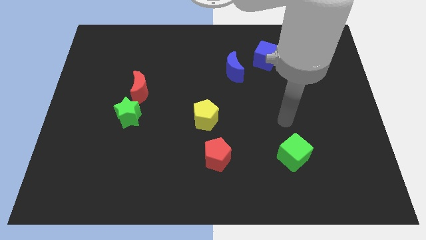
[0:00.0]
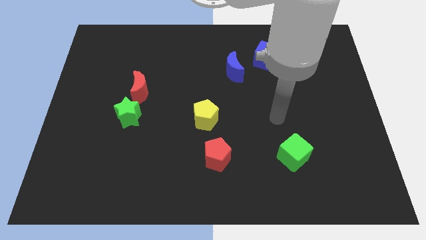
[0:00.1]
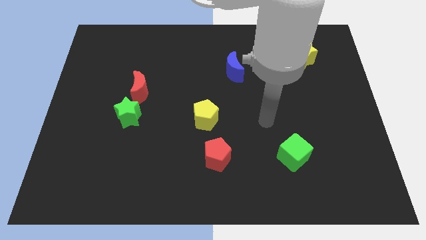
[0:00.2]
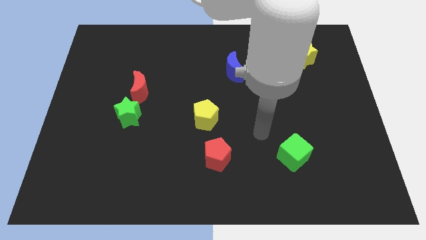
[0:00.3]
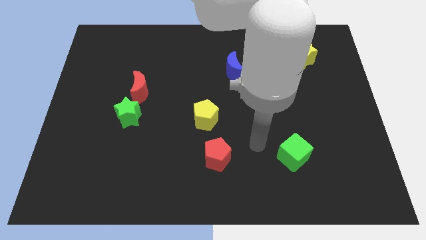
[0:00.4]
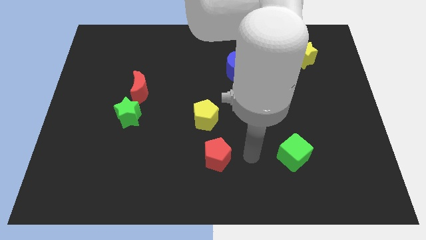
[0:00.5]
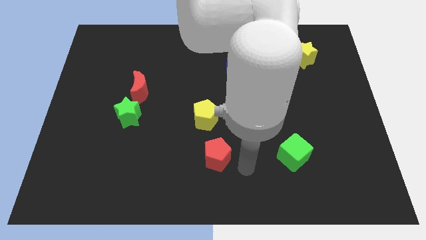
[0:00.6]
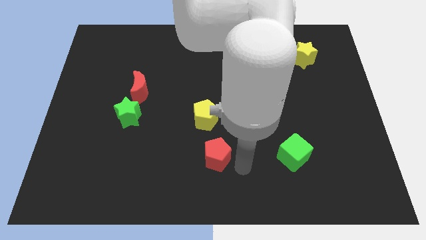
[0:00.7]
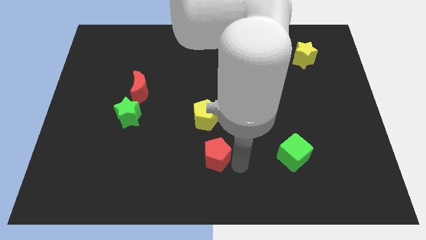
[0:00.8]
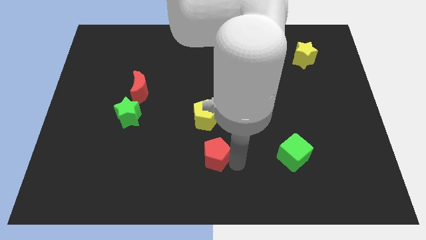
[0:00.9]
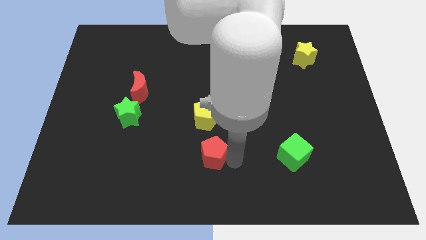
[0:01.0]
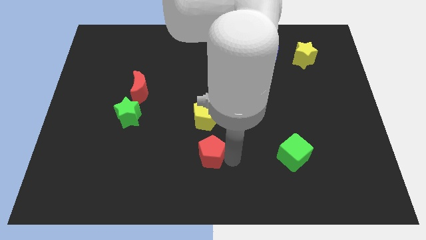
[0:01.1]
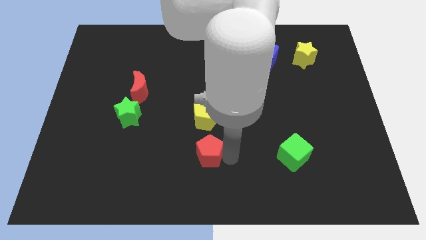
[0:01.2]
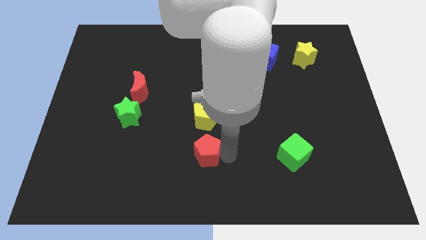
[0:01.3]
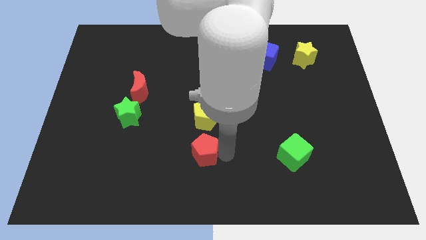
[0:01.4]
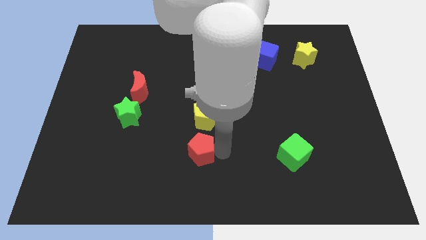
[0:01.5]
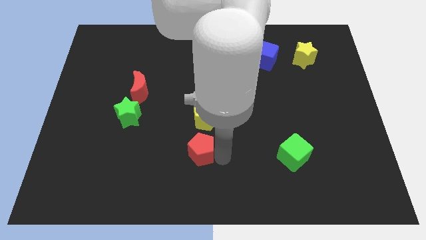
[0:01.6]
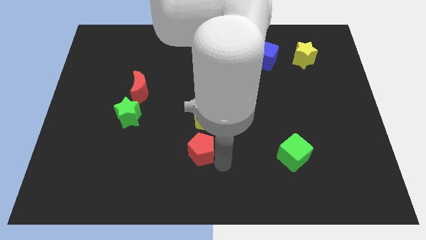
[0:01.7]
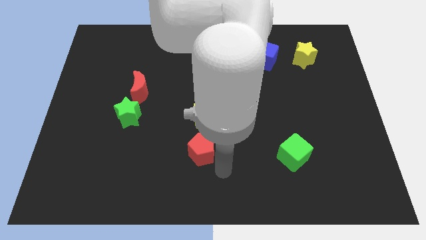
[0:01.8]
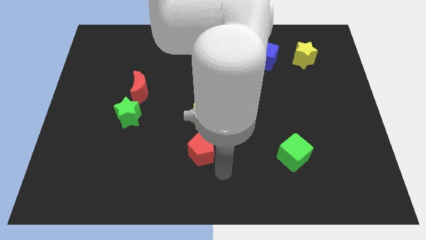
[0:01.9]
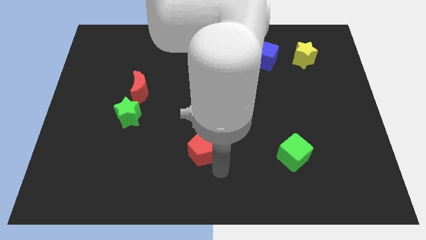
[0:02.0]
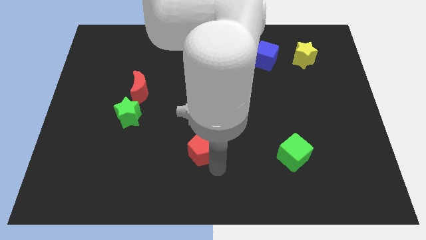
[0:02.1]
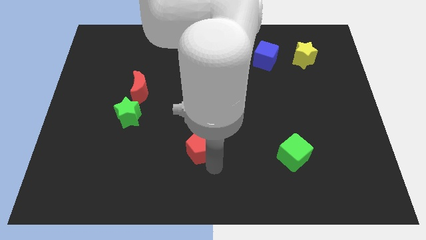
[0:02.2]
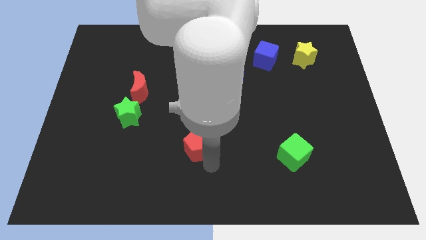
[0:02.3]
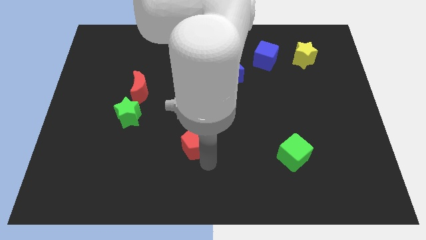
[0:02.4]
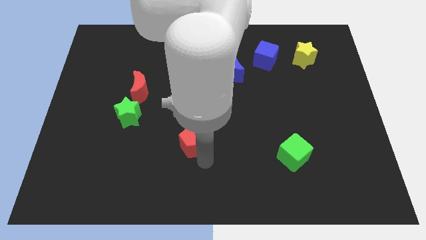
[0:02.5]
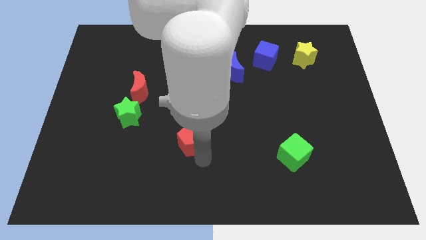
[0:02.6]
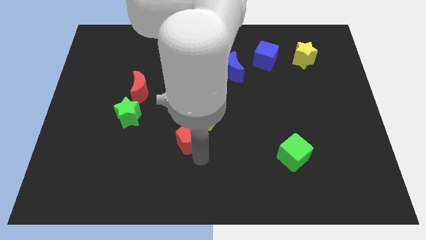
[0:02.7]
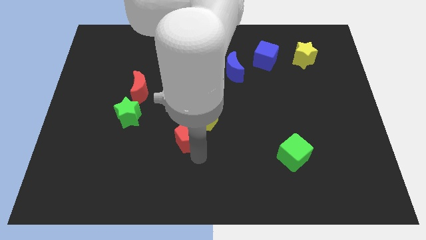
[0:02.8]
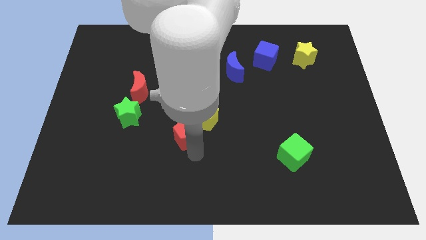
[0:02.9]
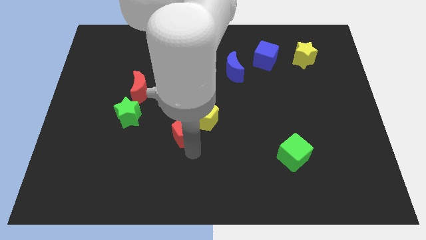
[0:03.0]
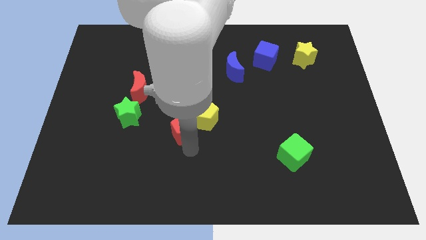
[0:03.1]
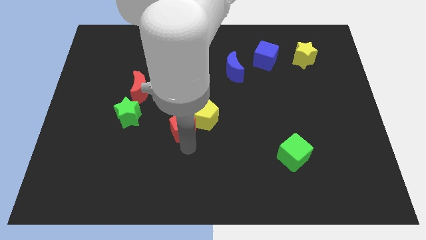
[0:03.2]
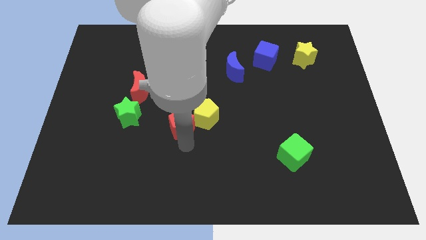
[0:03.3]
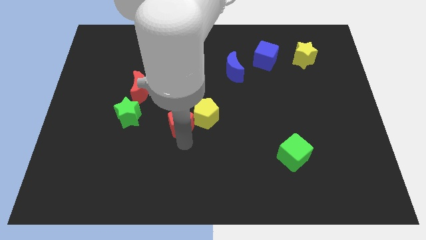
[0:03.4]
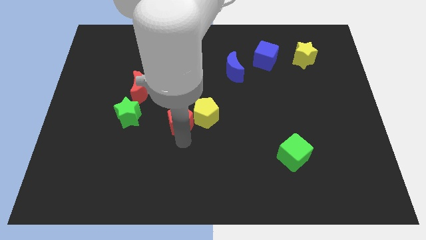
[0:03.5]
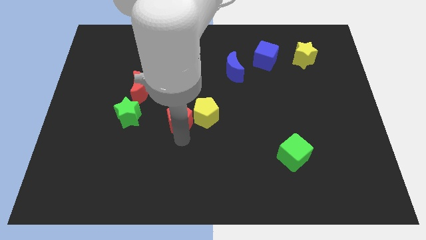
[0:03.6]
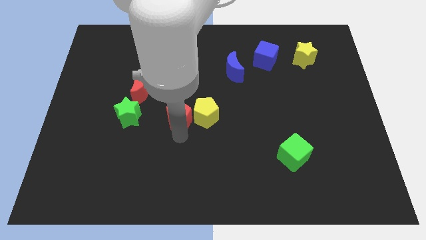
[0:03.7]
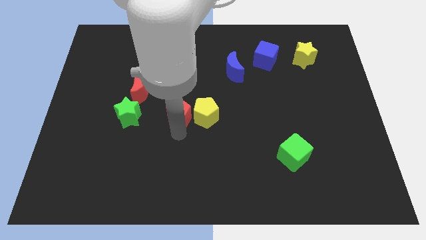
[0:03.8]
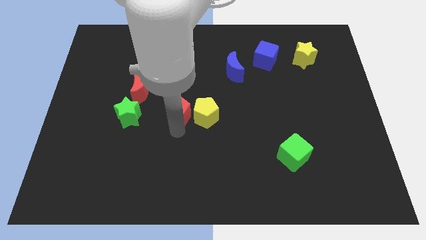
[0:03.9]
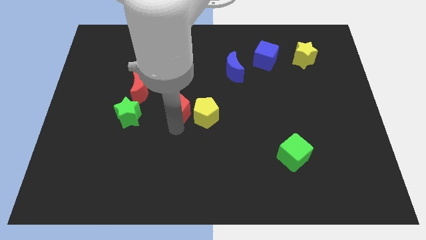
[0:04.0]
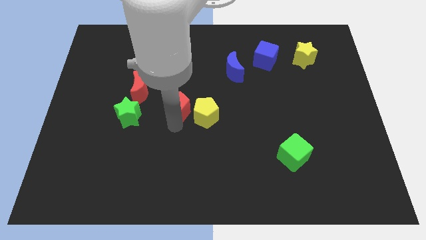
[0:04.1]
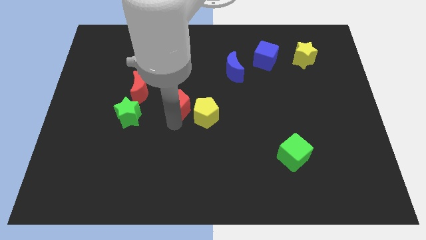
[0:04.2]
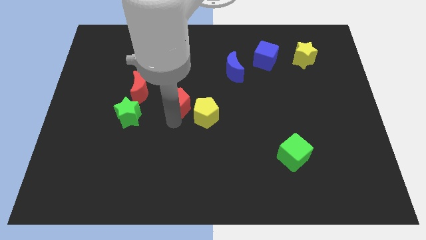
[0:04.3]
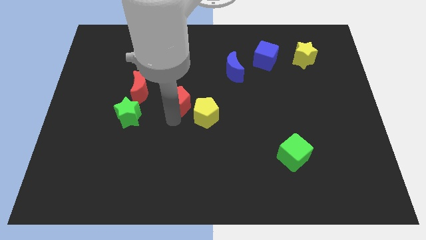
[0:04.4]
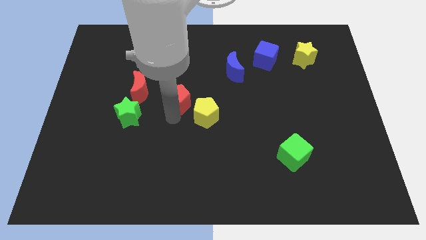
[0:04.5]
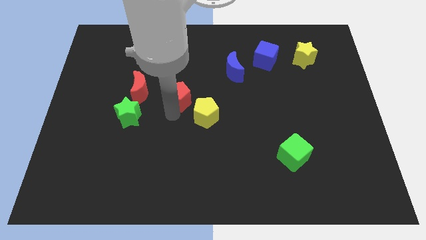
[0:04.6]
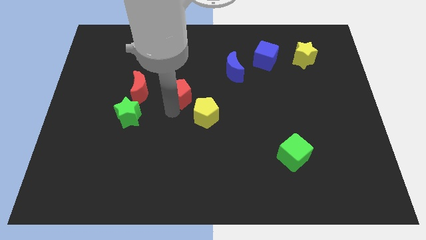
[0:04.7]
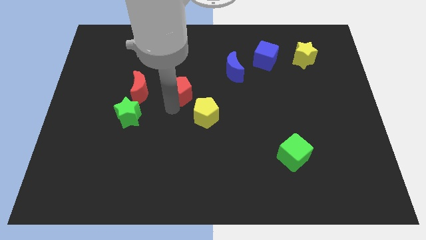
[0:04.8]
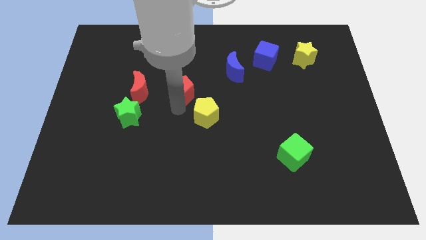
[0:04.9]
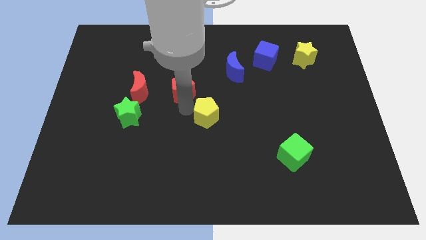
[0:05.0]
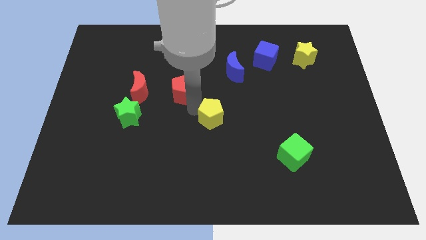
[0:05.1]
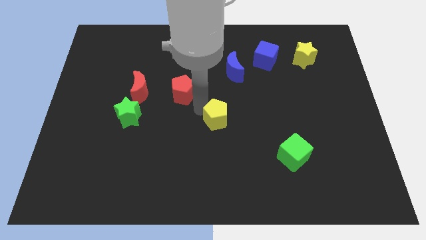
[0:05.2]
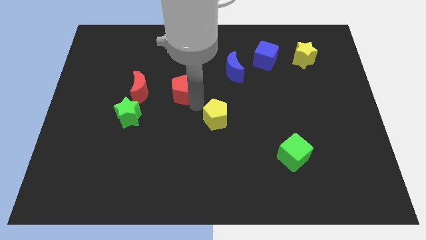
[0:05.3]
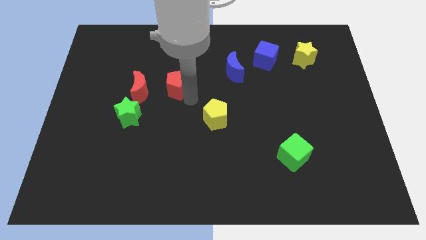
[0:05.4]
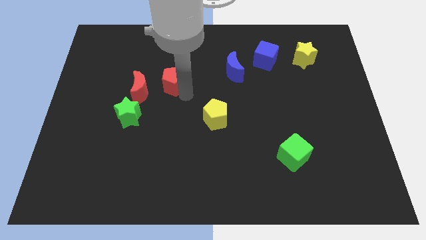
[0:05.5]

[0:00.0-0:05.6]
slide the red pentagon to the top right side of the red moon

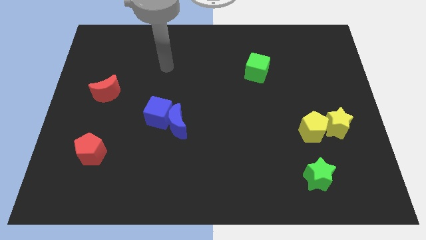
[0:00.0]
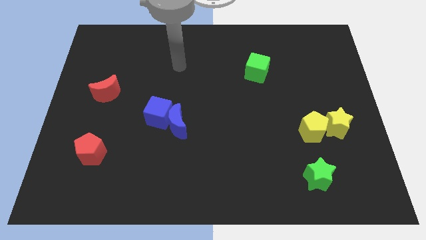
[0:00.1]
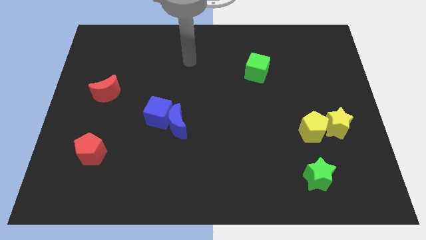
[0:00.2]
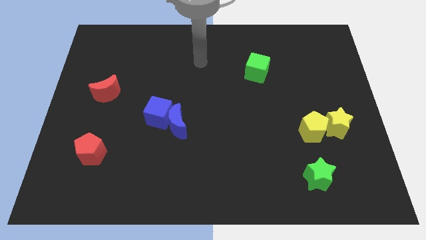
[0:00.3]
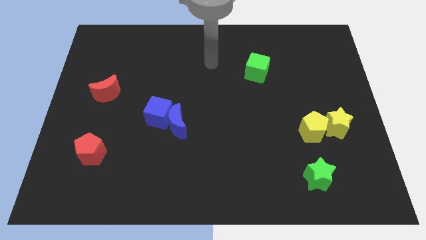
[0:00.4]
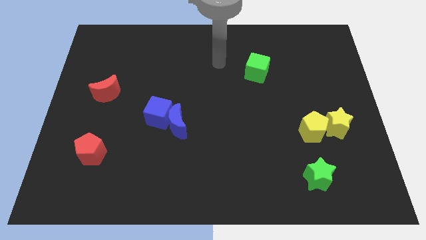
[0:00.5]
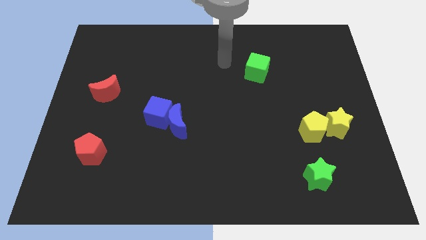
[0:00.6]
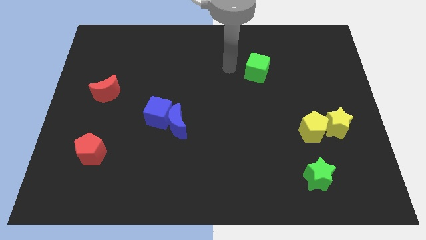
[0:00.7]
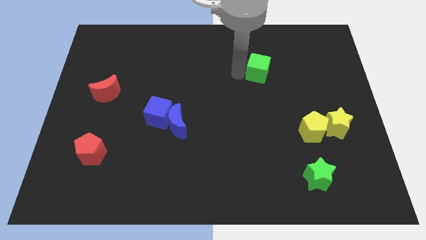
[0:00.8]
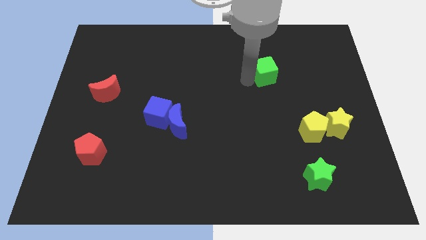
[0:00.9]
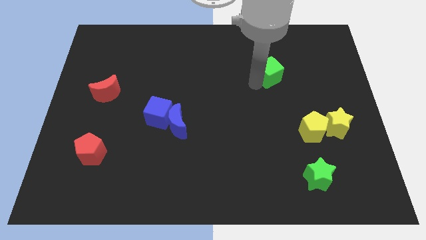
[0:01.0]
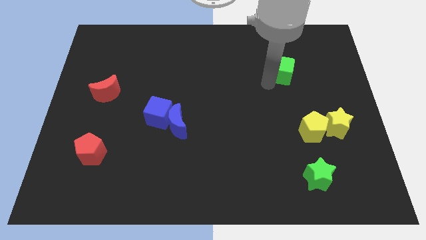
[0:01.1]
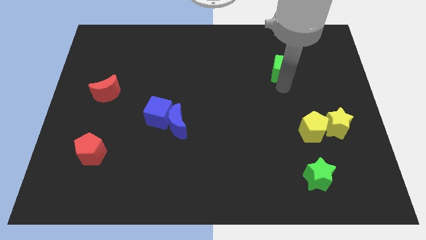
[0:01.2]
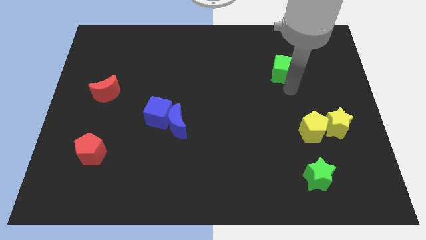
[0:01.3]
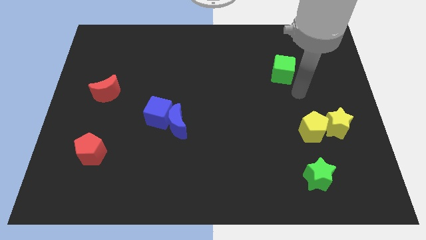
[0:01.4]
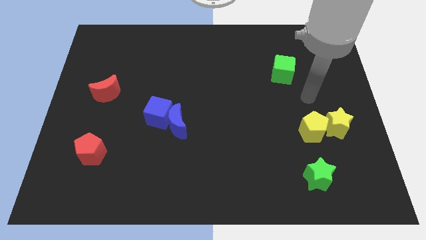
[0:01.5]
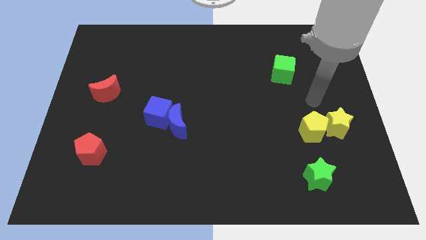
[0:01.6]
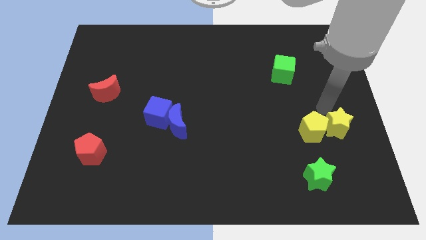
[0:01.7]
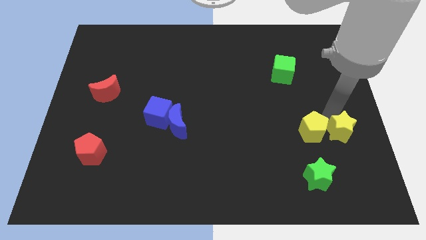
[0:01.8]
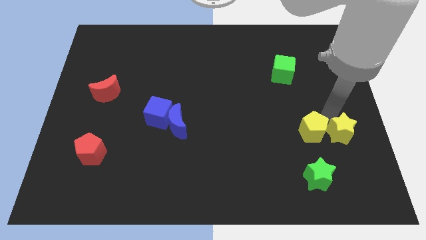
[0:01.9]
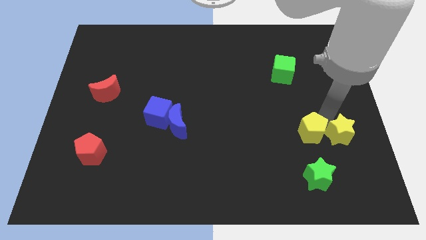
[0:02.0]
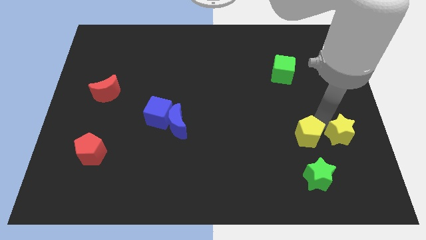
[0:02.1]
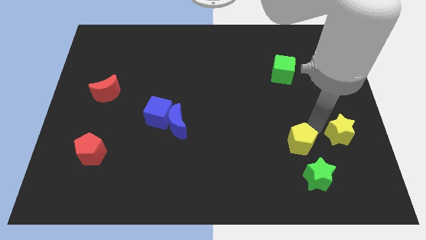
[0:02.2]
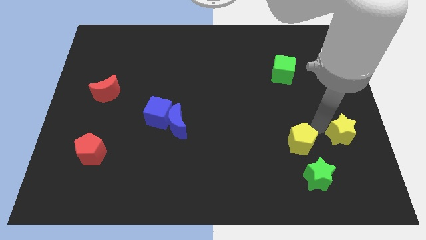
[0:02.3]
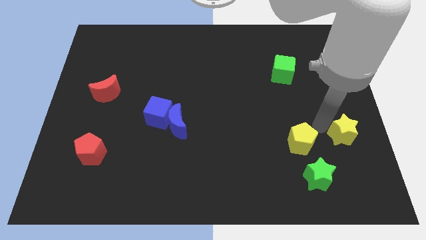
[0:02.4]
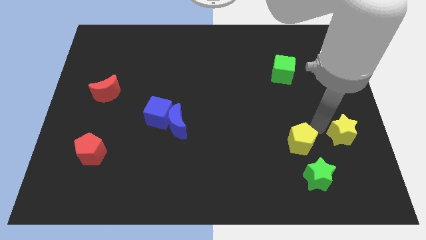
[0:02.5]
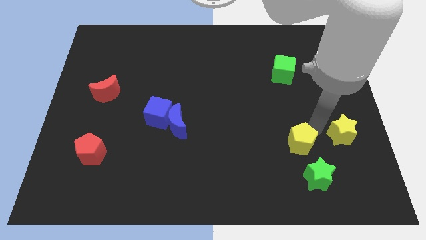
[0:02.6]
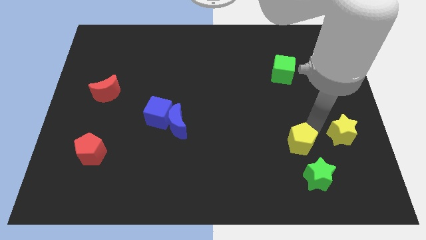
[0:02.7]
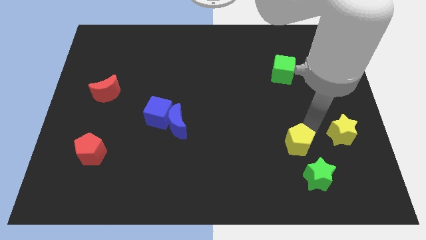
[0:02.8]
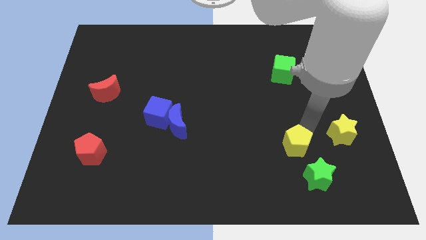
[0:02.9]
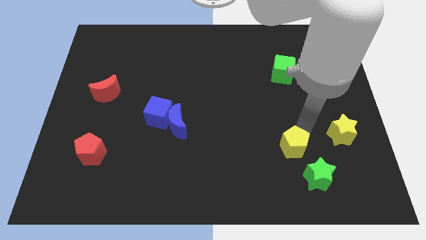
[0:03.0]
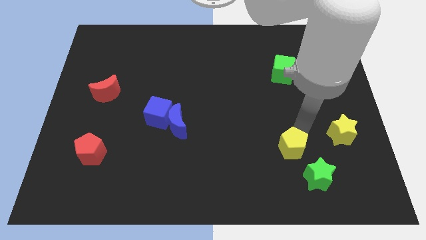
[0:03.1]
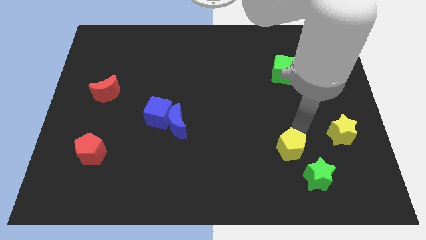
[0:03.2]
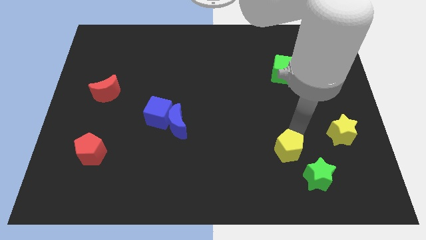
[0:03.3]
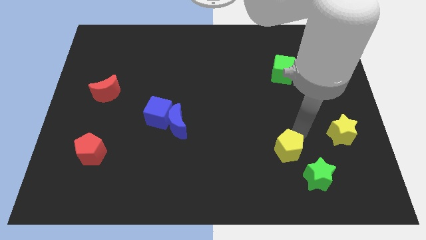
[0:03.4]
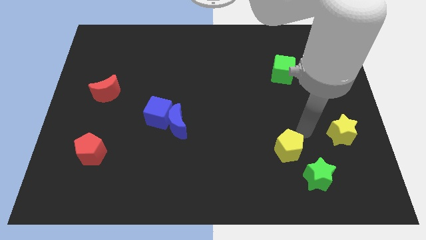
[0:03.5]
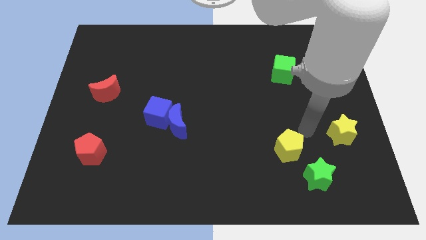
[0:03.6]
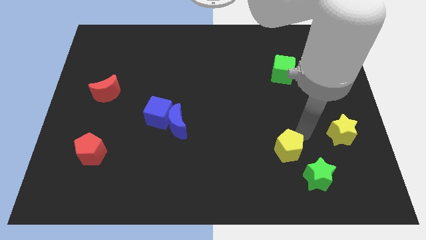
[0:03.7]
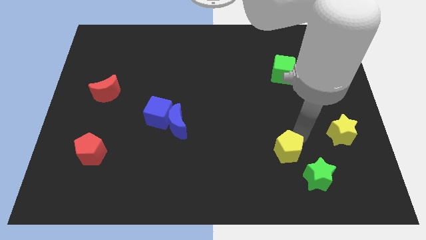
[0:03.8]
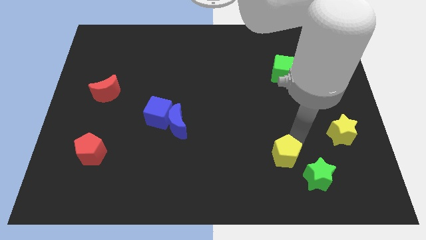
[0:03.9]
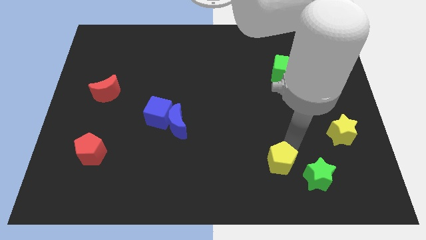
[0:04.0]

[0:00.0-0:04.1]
put the yellow pentagon to the left of the green star
